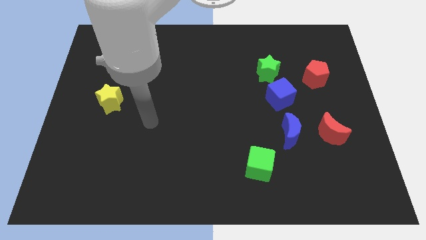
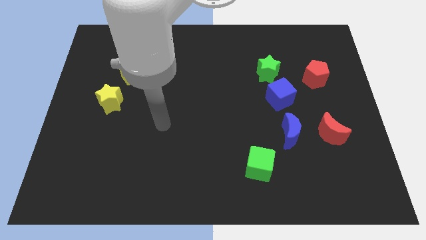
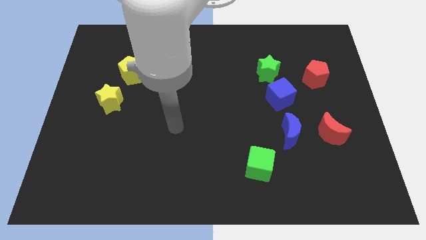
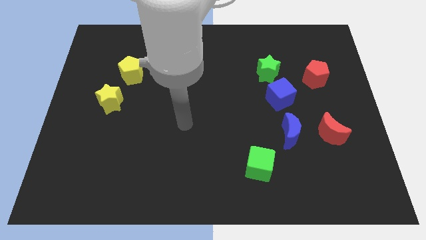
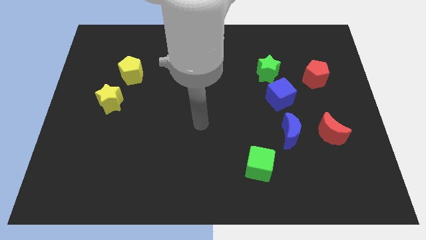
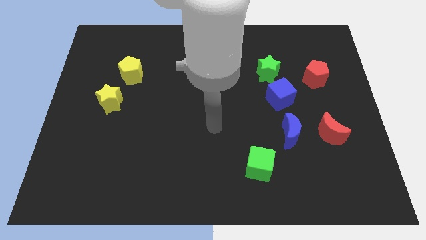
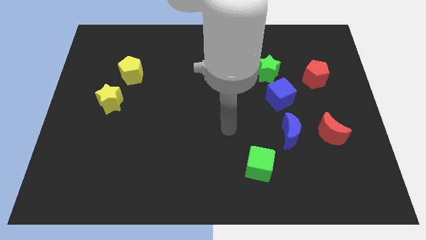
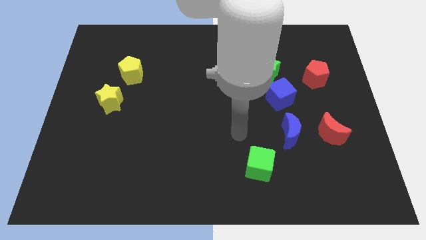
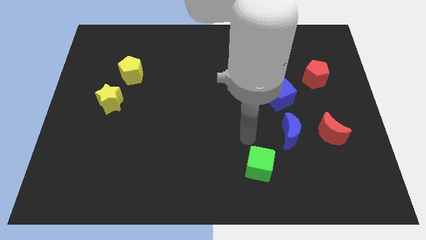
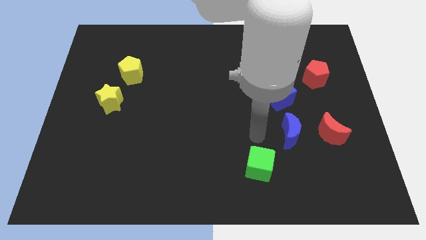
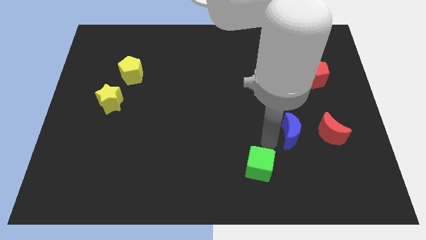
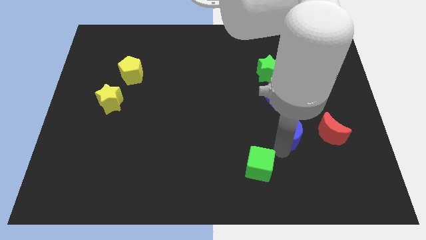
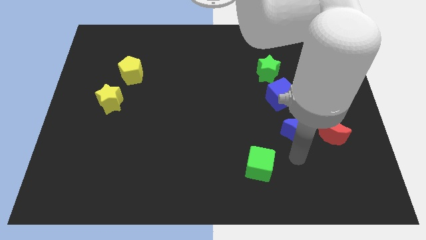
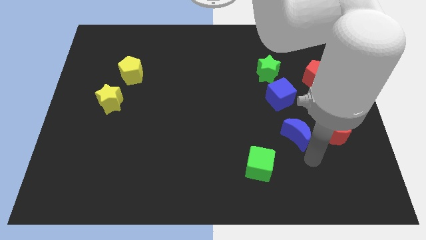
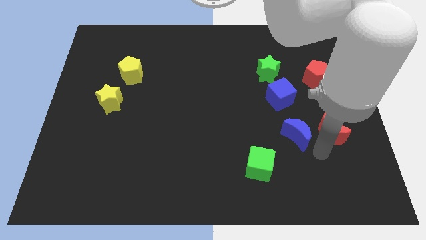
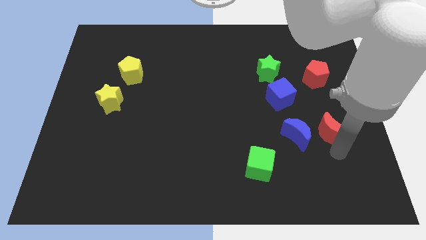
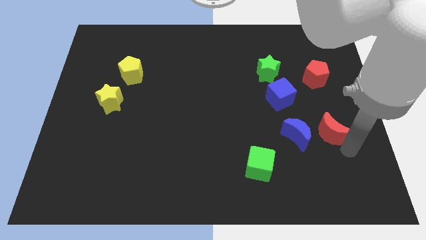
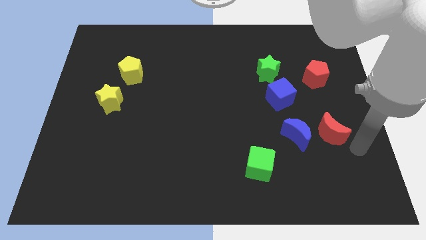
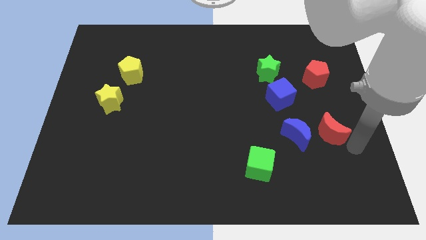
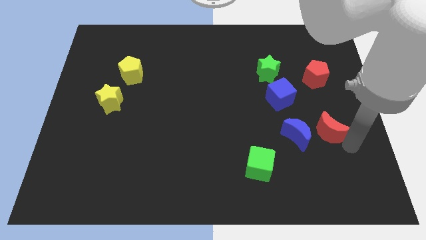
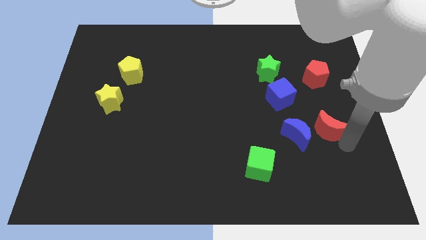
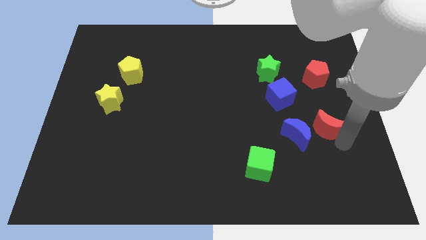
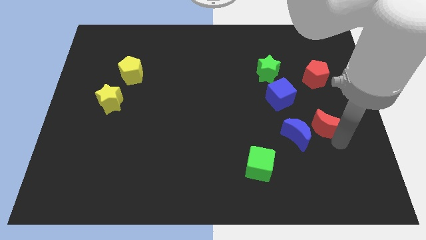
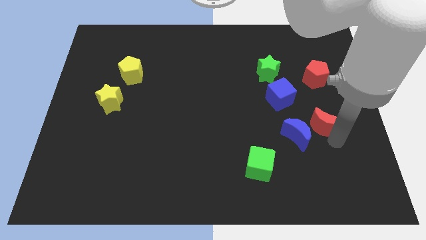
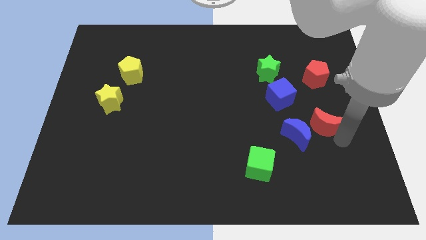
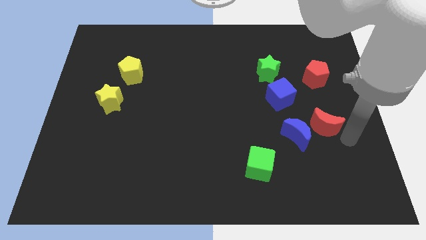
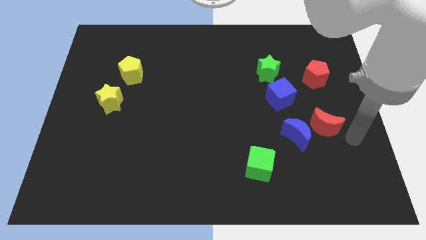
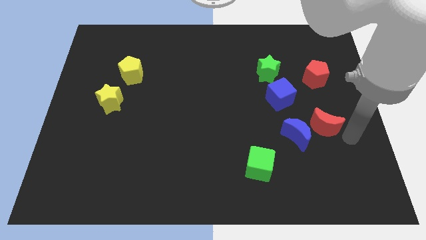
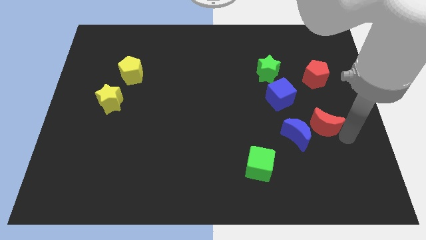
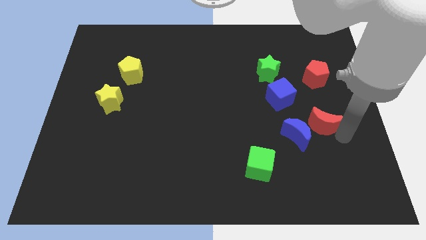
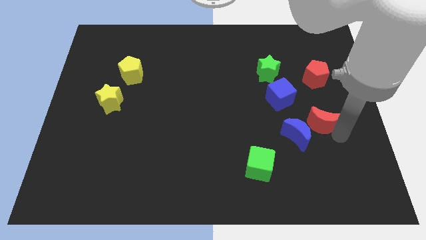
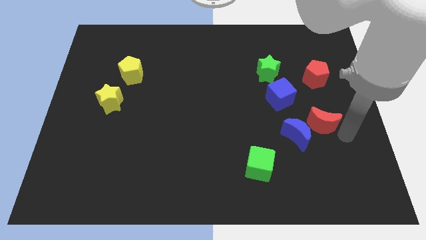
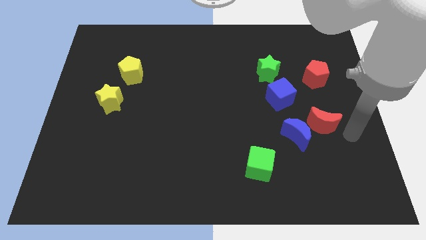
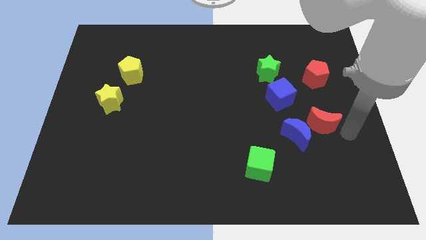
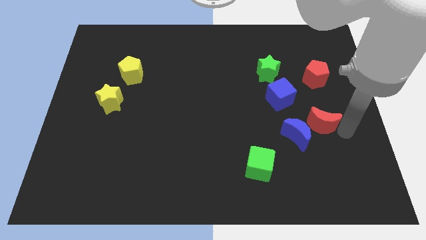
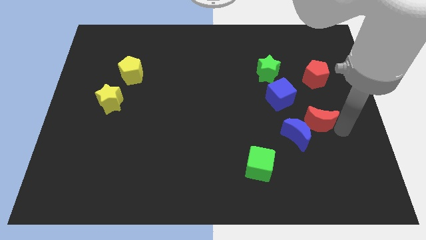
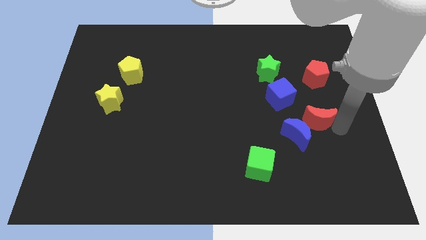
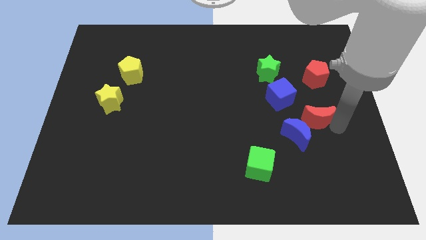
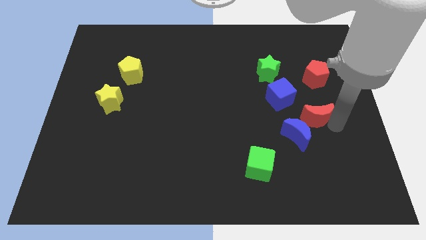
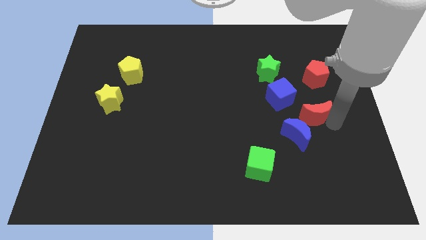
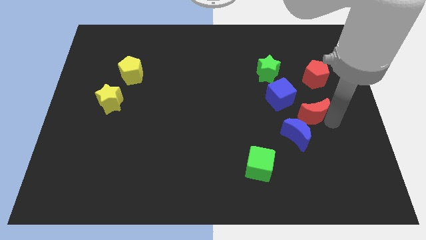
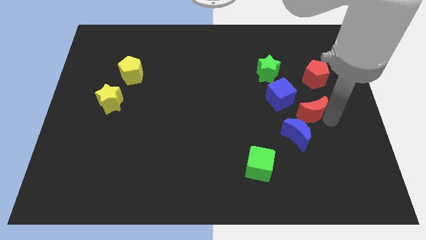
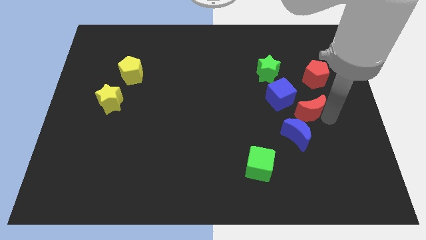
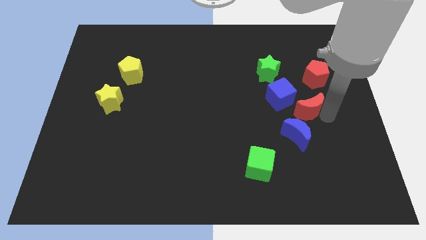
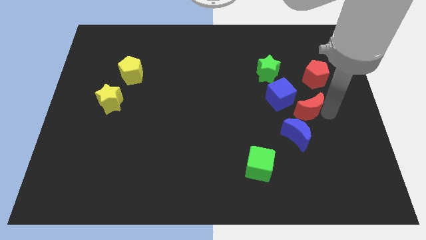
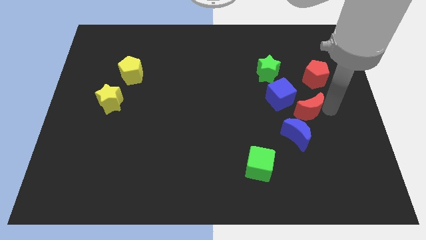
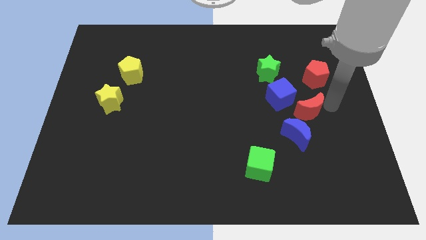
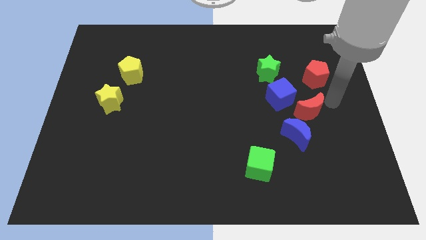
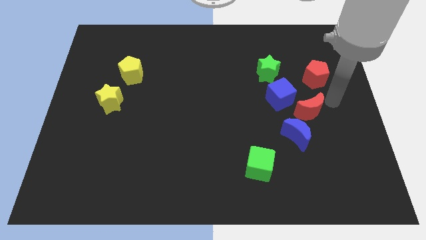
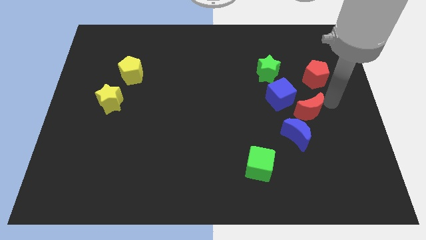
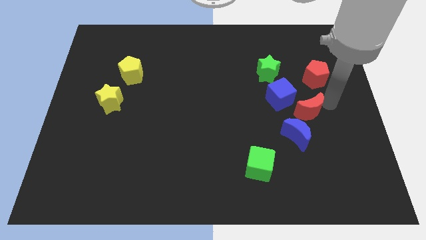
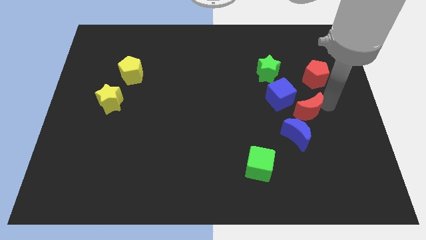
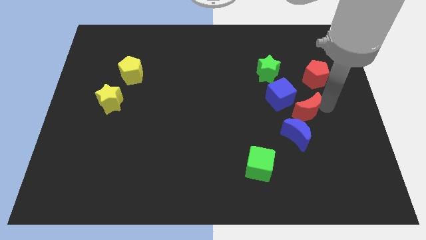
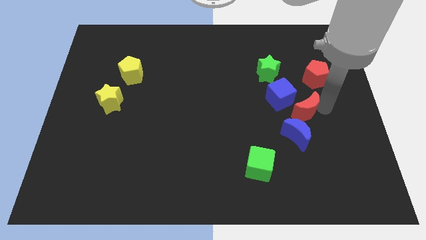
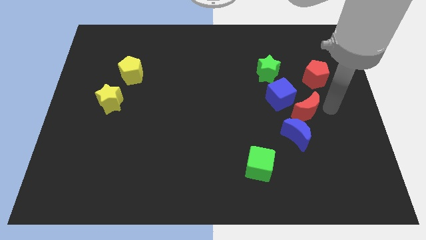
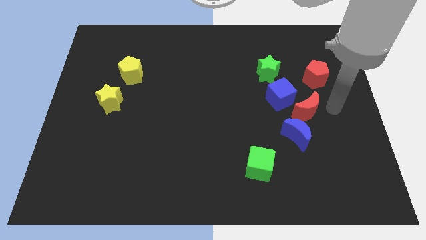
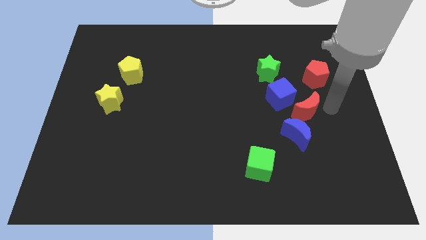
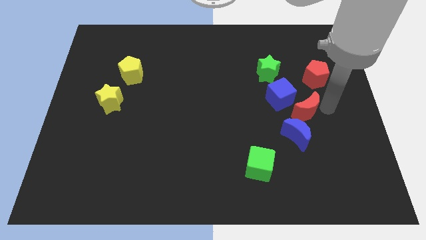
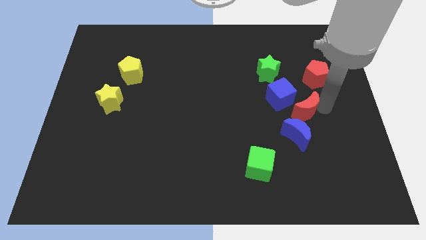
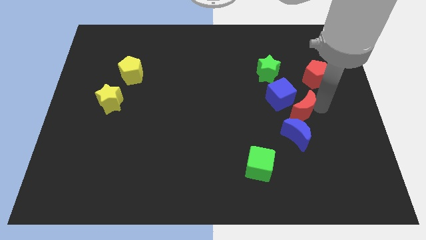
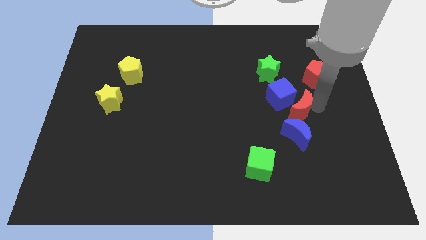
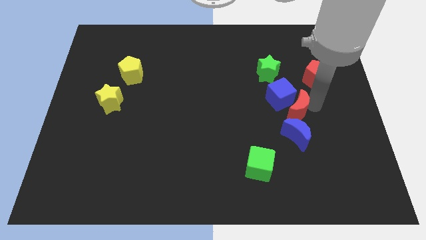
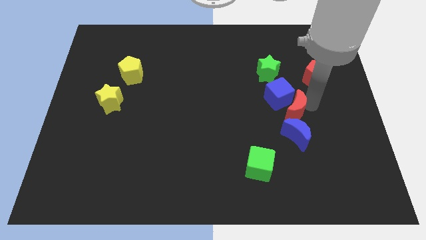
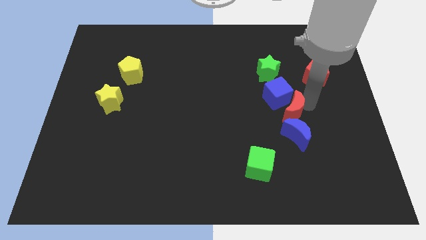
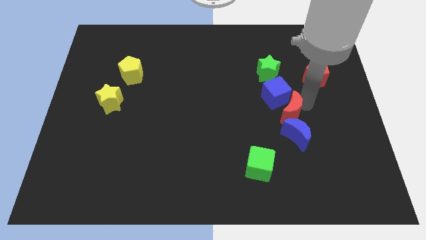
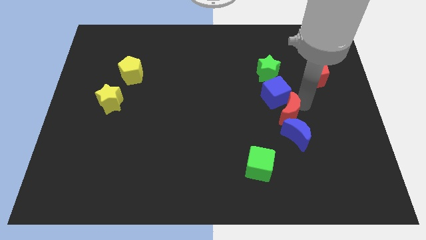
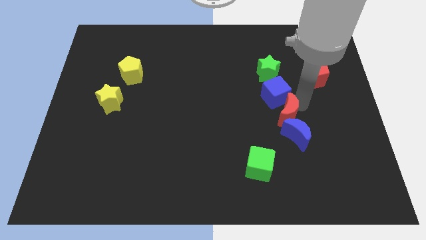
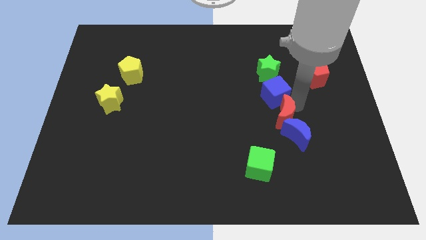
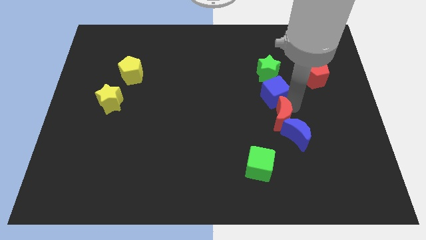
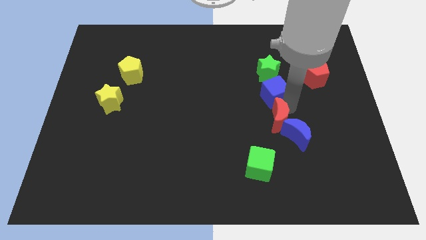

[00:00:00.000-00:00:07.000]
move the red moon to the left side of the blue moon

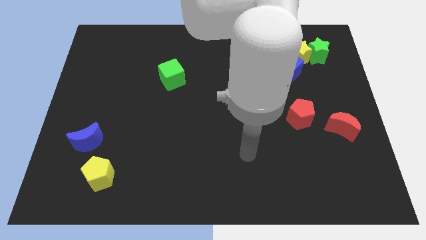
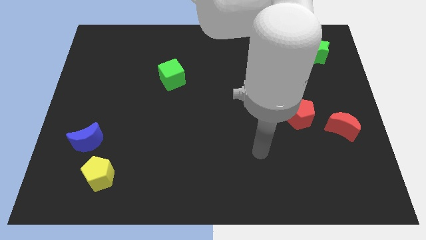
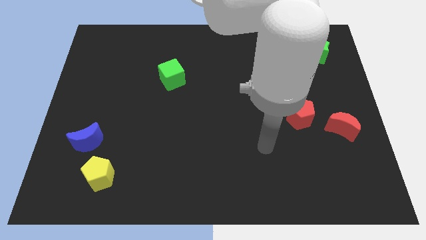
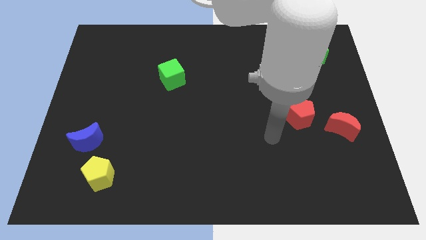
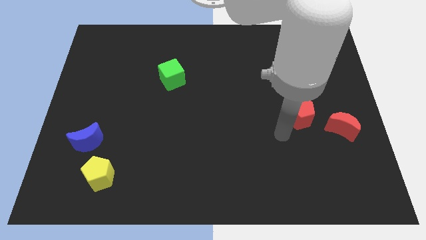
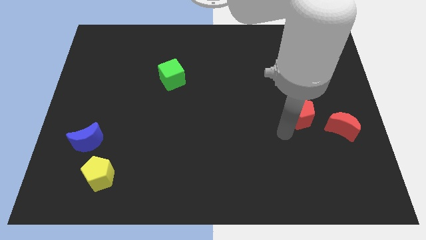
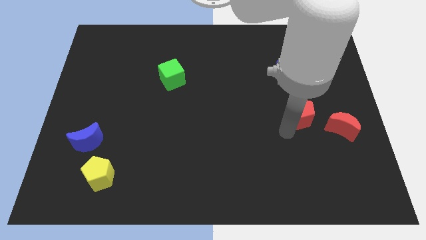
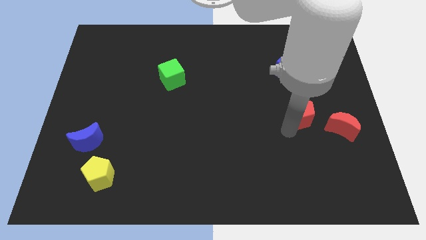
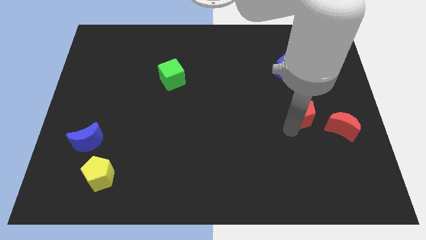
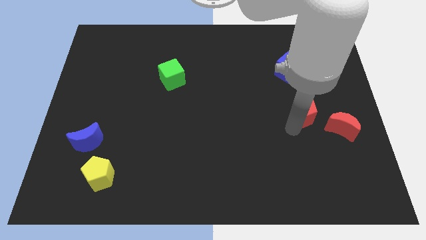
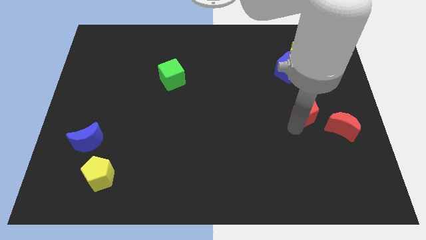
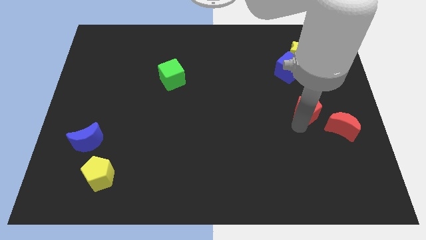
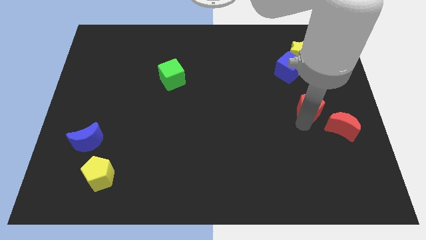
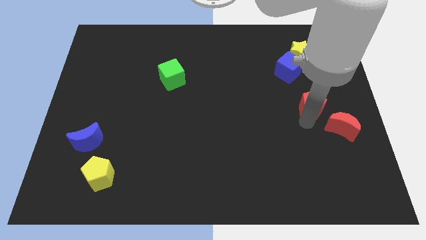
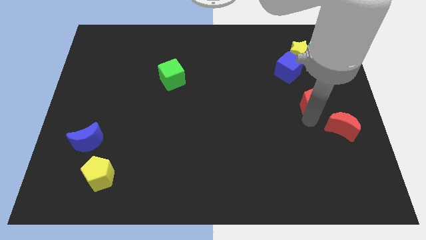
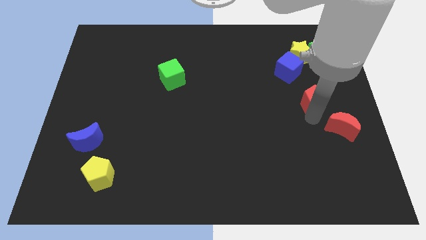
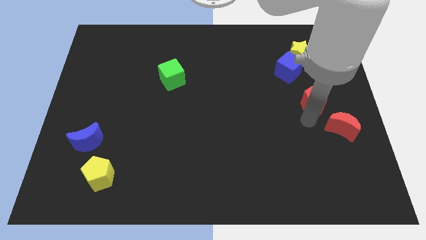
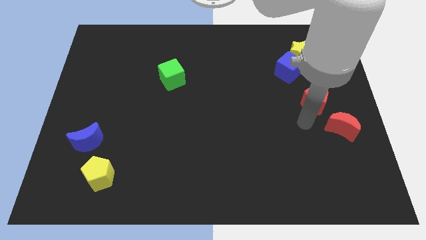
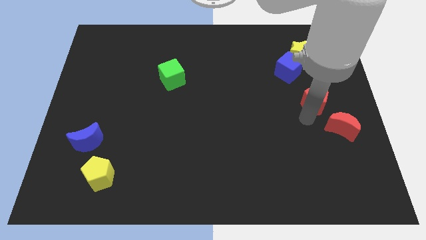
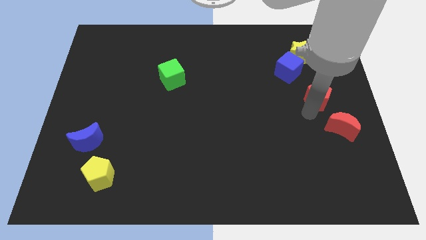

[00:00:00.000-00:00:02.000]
slide the red pentagon to the bottom side of the green star
